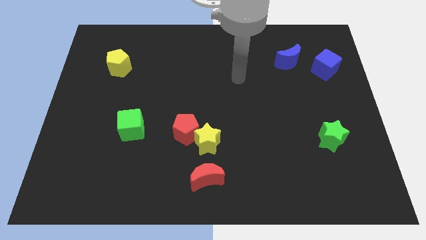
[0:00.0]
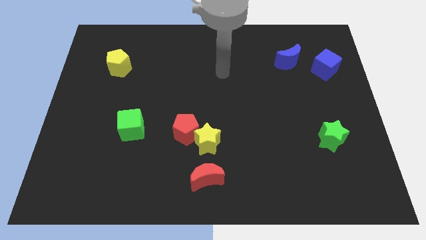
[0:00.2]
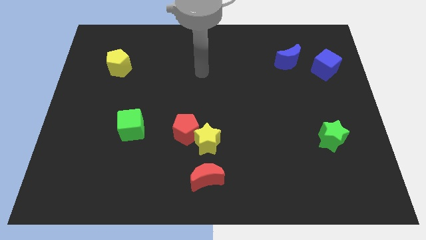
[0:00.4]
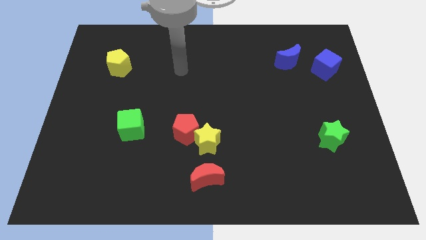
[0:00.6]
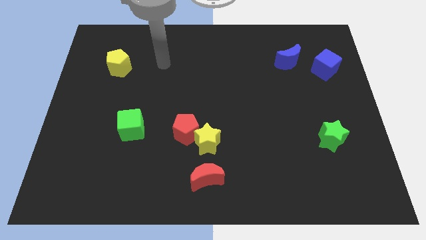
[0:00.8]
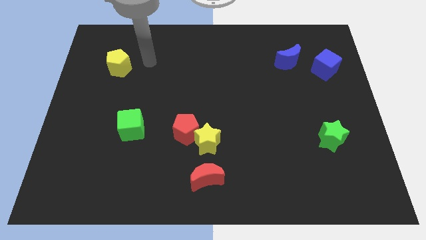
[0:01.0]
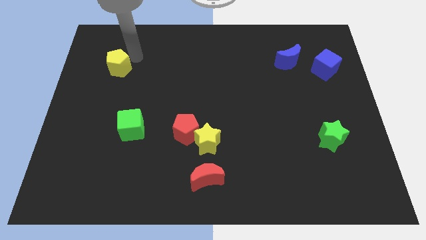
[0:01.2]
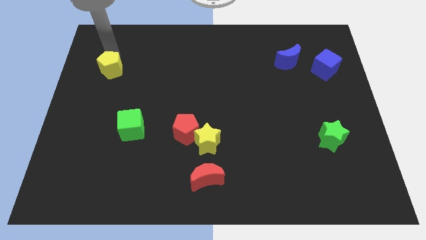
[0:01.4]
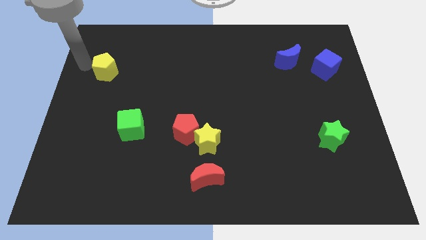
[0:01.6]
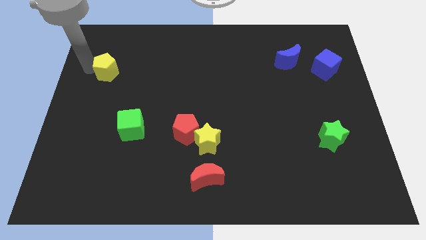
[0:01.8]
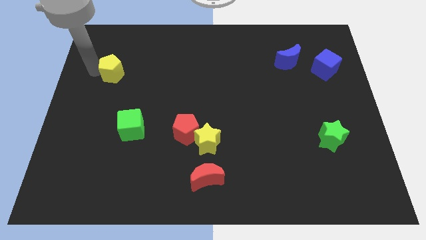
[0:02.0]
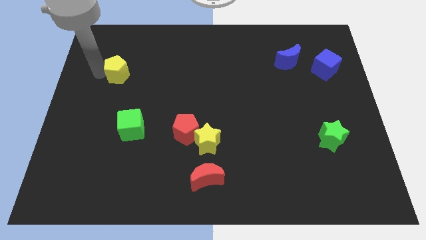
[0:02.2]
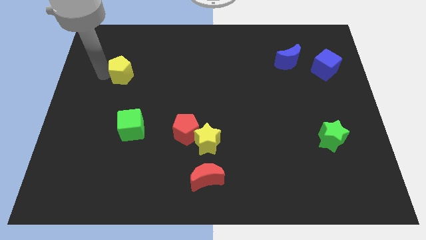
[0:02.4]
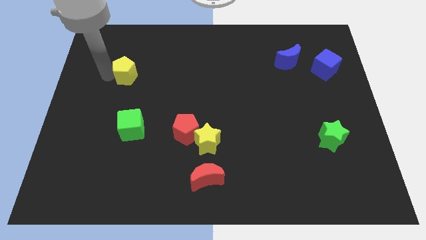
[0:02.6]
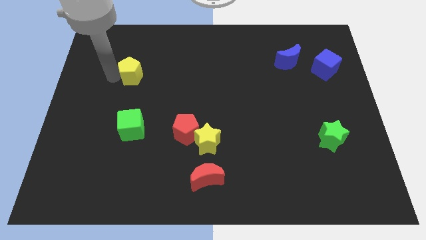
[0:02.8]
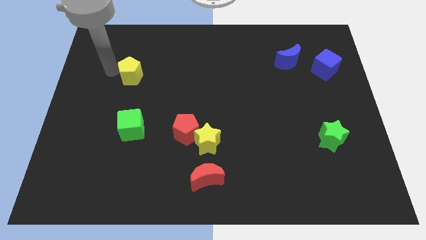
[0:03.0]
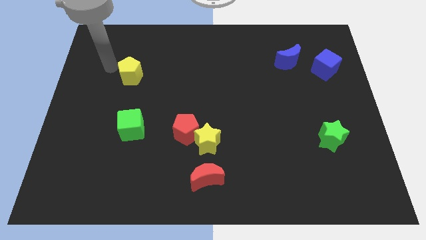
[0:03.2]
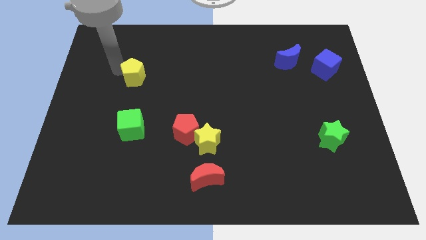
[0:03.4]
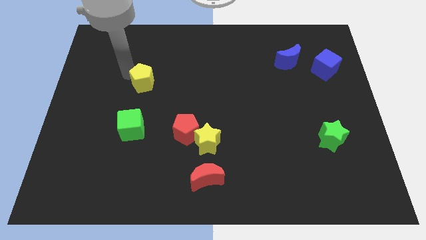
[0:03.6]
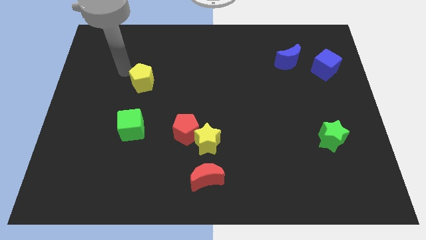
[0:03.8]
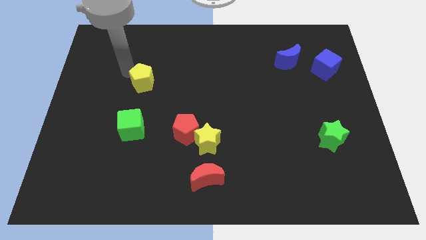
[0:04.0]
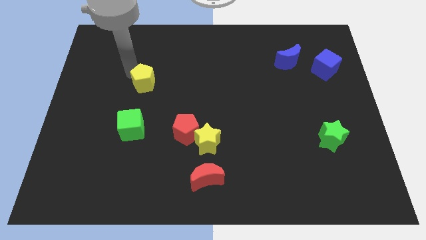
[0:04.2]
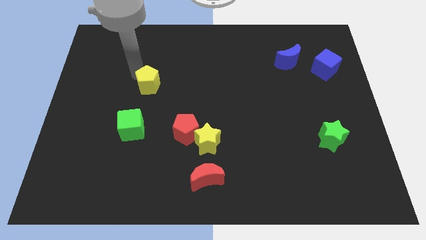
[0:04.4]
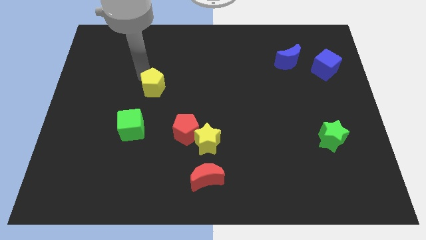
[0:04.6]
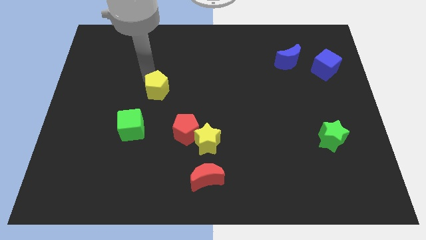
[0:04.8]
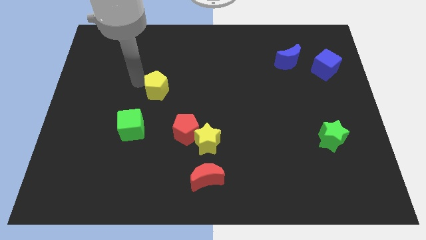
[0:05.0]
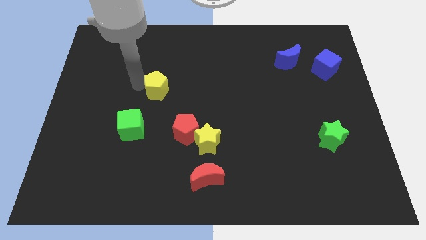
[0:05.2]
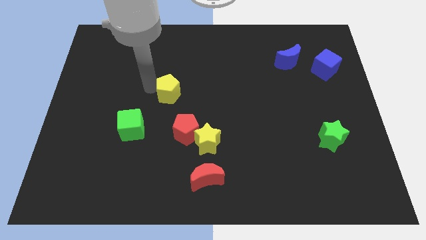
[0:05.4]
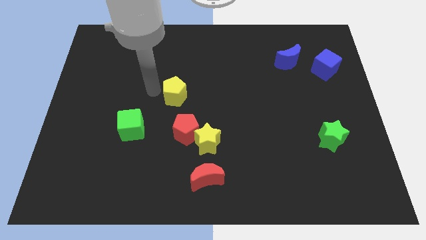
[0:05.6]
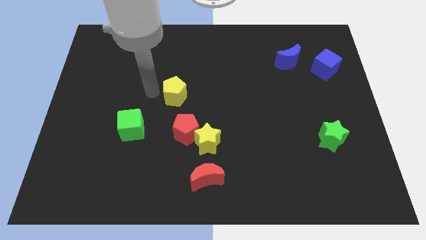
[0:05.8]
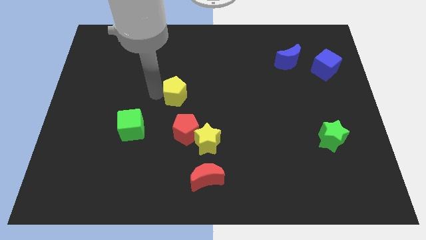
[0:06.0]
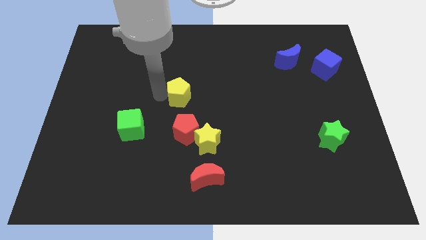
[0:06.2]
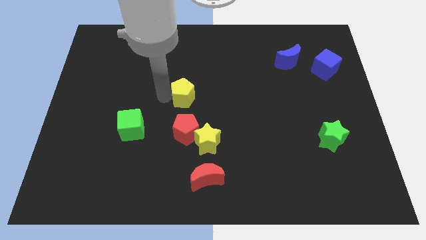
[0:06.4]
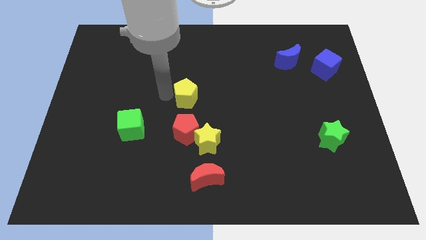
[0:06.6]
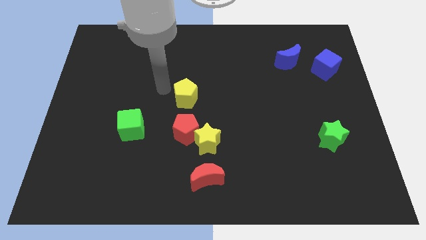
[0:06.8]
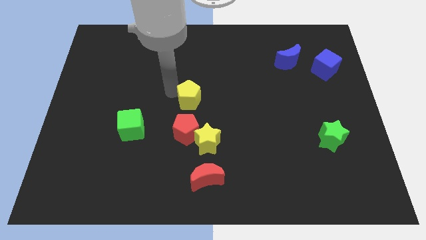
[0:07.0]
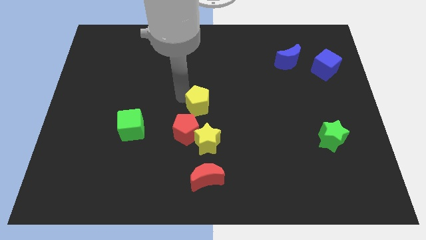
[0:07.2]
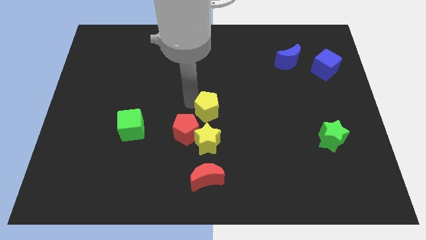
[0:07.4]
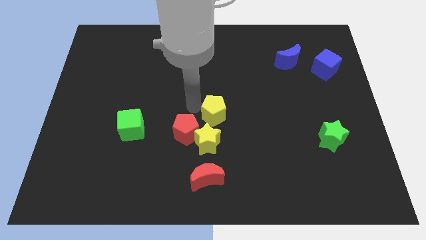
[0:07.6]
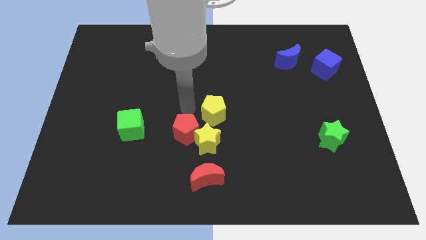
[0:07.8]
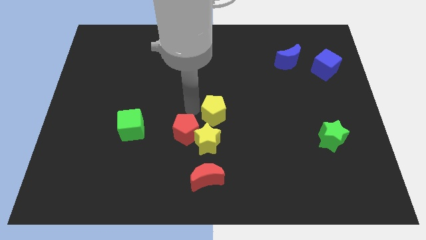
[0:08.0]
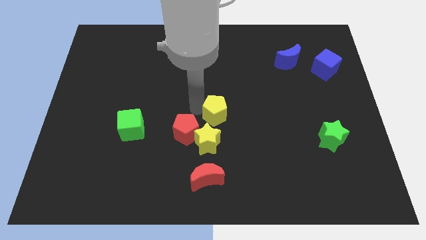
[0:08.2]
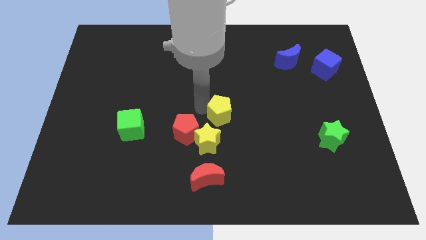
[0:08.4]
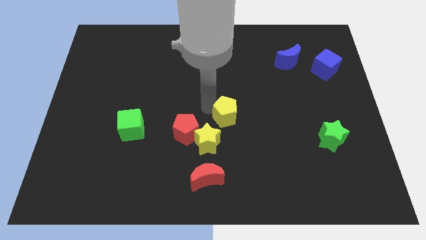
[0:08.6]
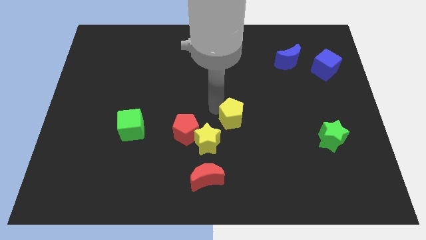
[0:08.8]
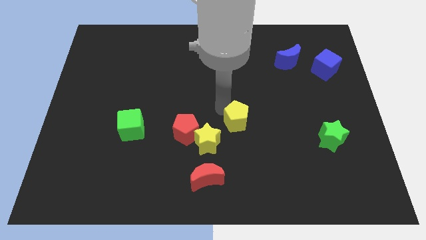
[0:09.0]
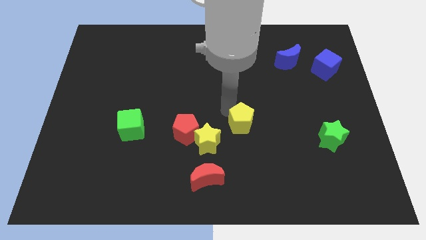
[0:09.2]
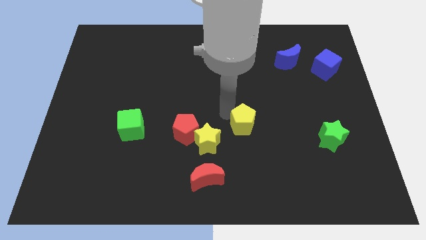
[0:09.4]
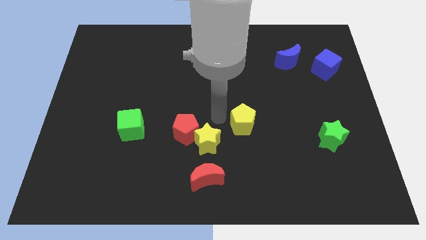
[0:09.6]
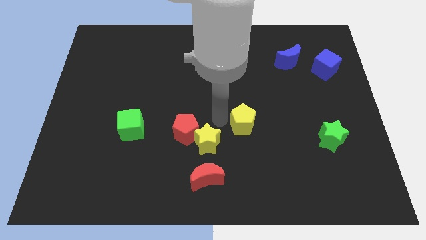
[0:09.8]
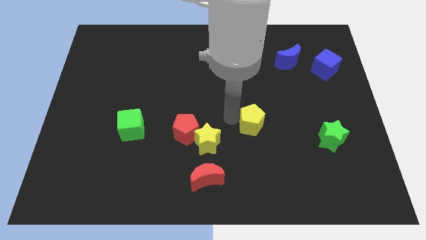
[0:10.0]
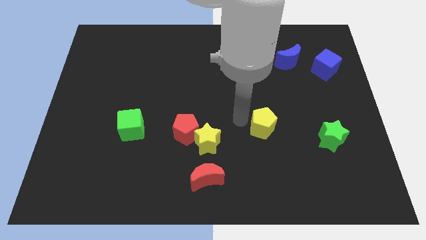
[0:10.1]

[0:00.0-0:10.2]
put the yellow pentagon to the left of the green star
